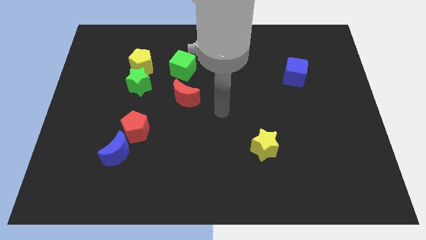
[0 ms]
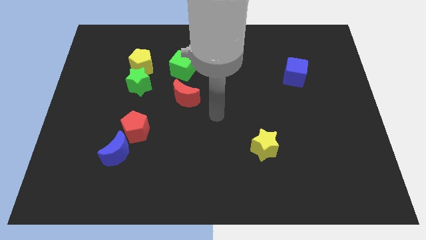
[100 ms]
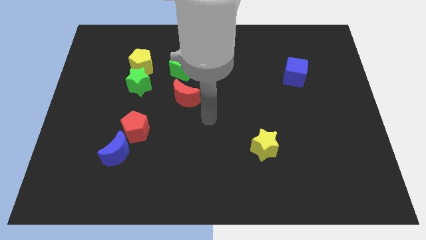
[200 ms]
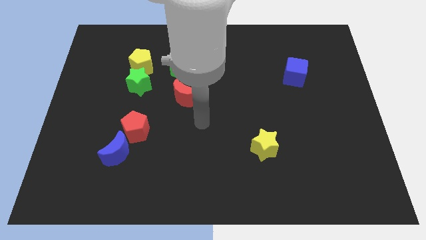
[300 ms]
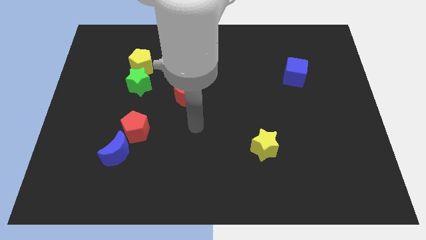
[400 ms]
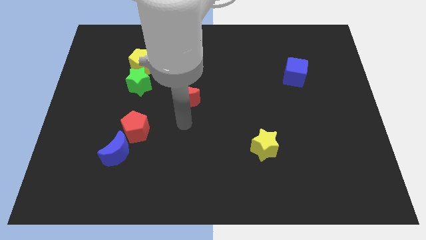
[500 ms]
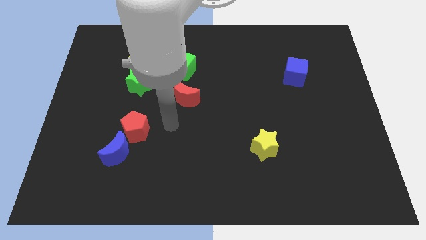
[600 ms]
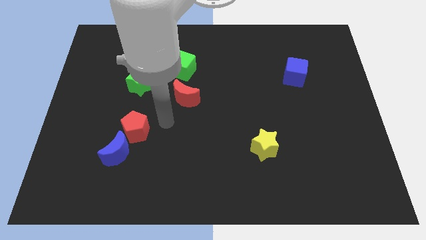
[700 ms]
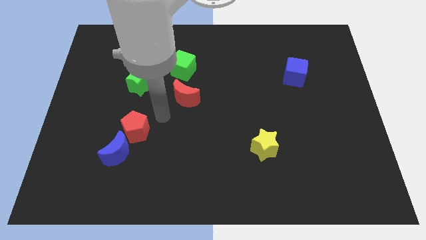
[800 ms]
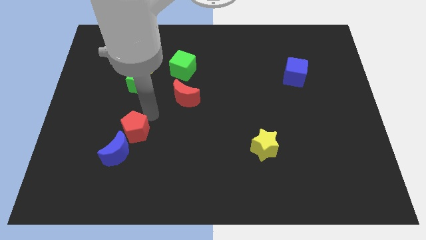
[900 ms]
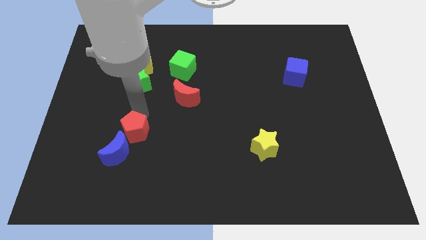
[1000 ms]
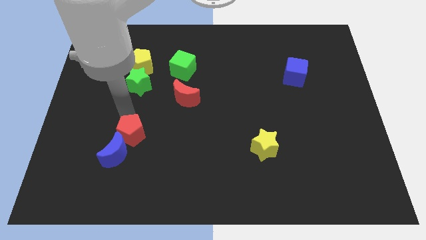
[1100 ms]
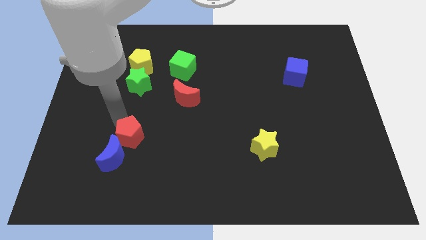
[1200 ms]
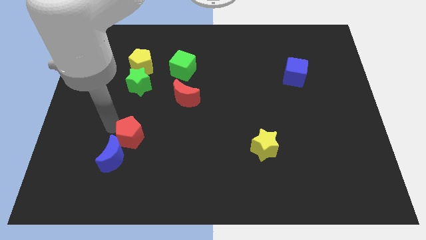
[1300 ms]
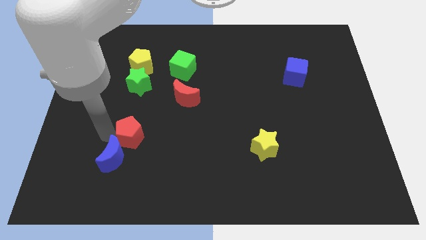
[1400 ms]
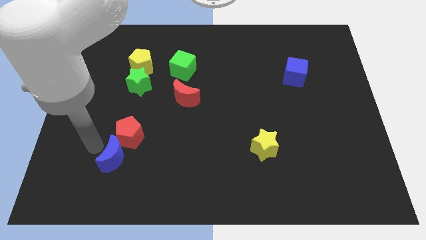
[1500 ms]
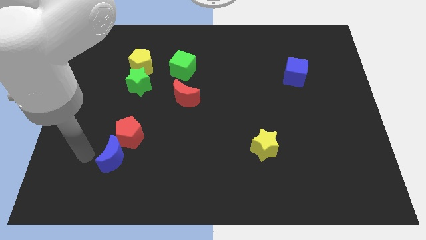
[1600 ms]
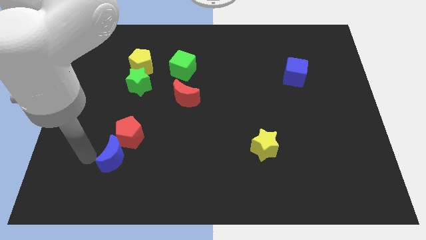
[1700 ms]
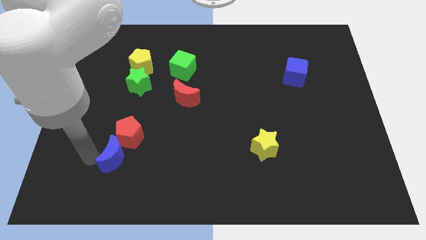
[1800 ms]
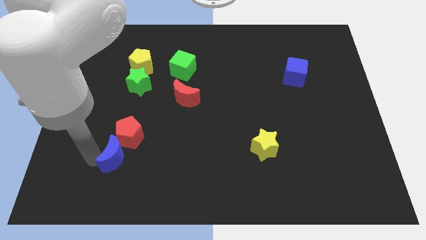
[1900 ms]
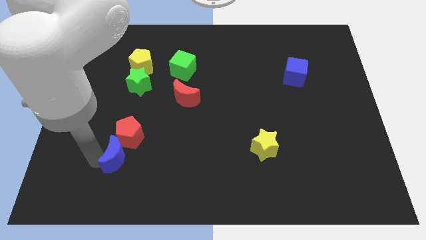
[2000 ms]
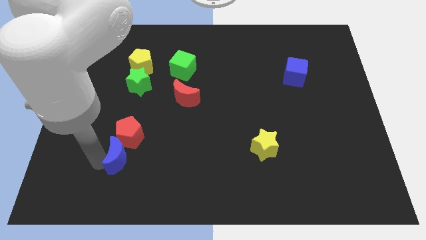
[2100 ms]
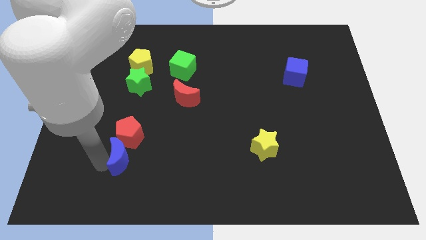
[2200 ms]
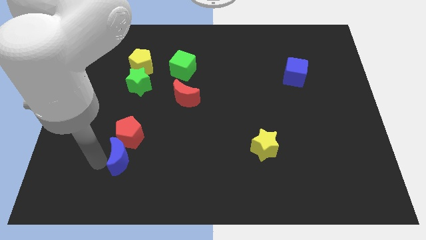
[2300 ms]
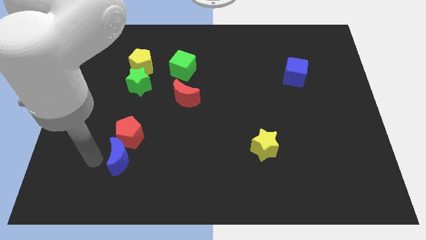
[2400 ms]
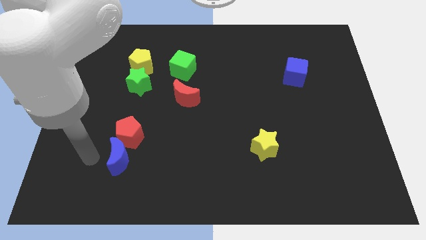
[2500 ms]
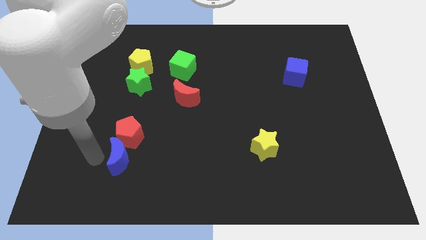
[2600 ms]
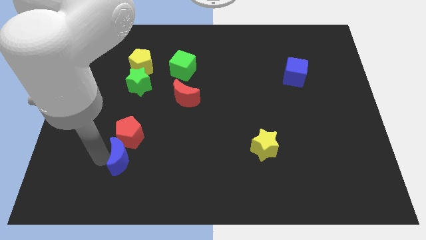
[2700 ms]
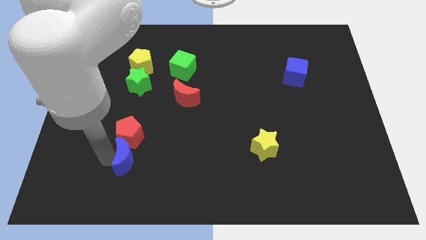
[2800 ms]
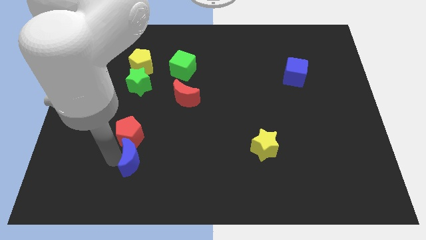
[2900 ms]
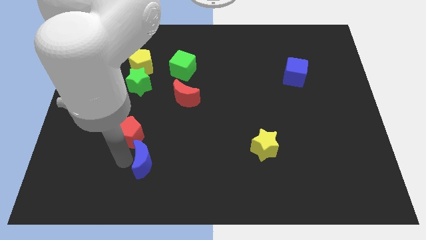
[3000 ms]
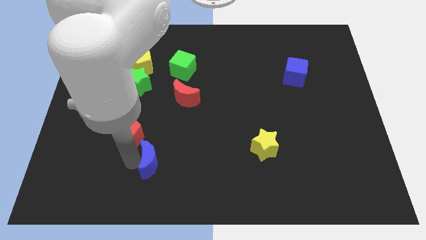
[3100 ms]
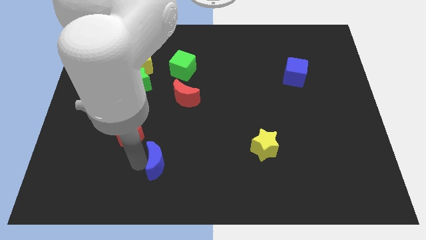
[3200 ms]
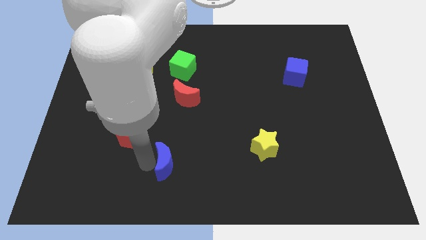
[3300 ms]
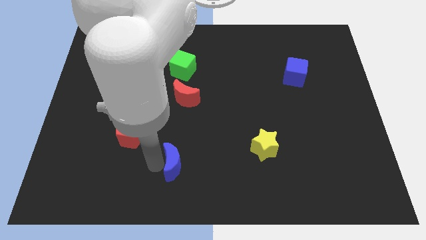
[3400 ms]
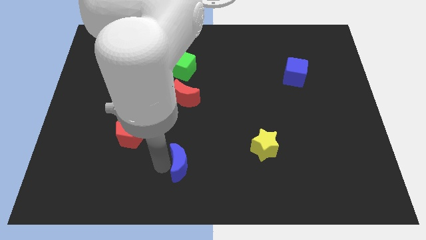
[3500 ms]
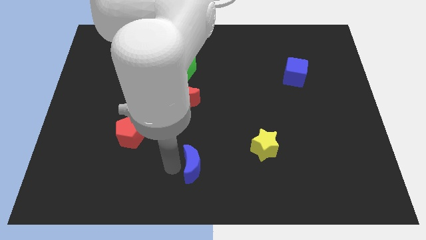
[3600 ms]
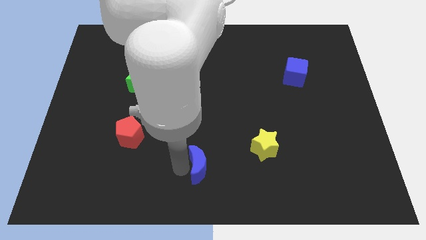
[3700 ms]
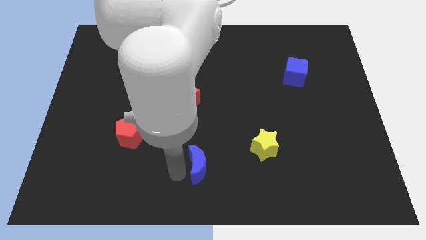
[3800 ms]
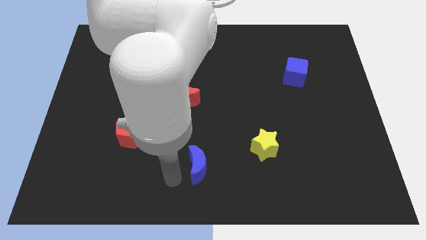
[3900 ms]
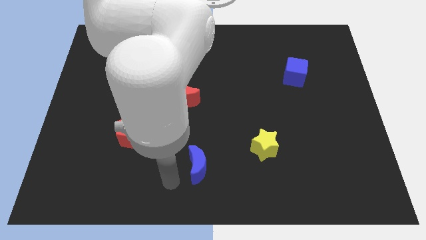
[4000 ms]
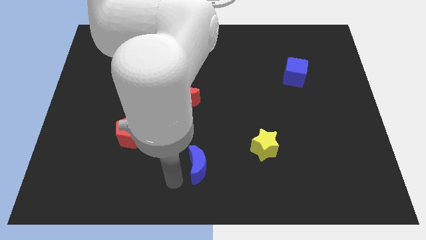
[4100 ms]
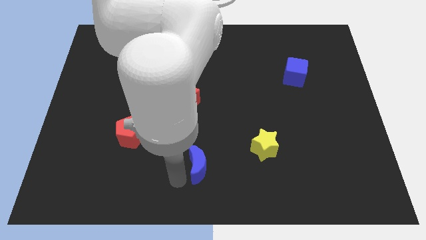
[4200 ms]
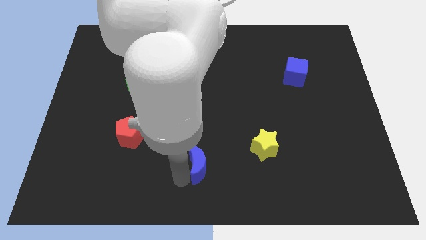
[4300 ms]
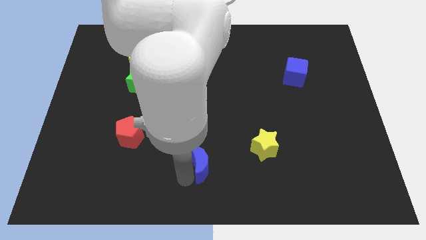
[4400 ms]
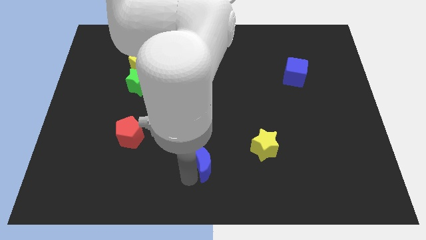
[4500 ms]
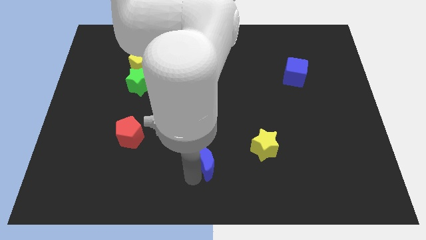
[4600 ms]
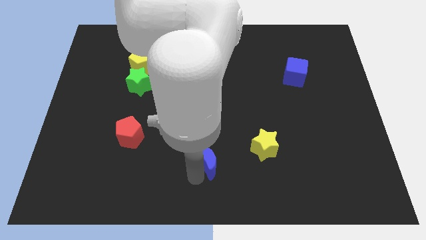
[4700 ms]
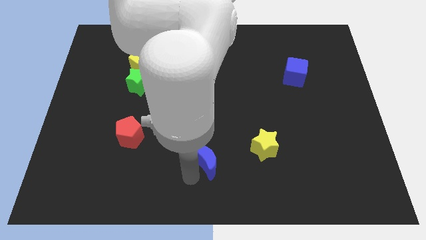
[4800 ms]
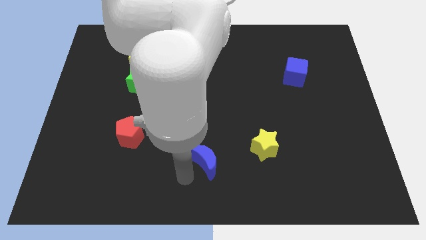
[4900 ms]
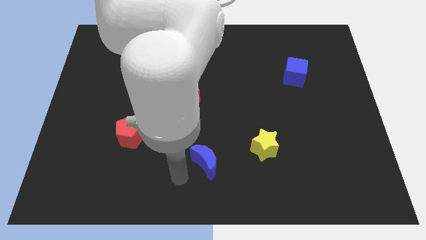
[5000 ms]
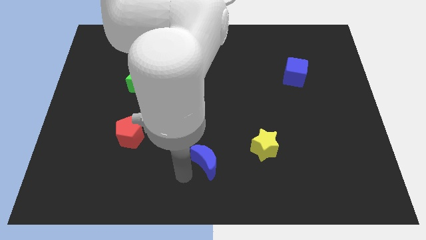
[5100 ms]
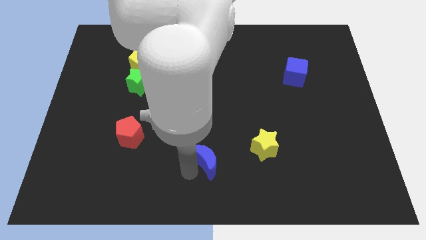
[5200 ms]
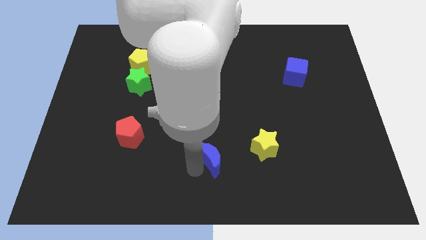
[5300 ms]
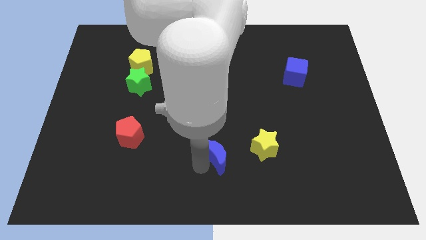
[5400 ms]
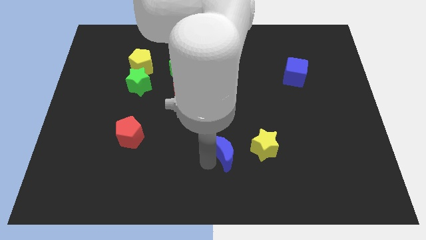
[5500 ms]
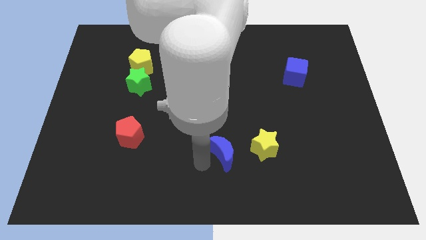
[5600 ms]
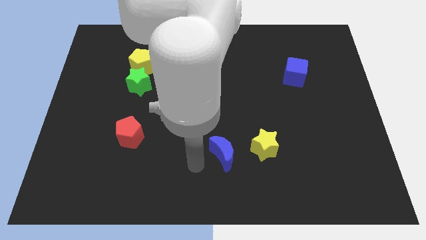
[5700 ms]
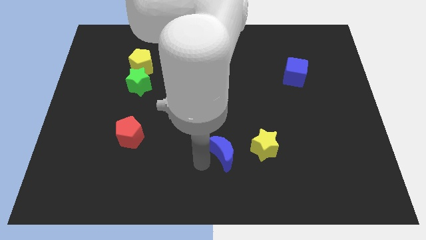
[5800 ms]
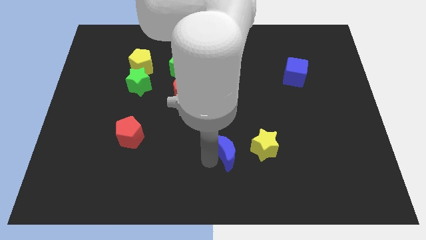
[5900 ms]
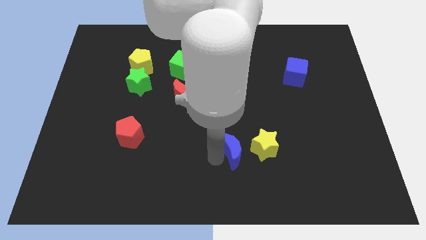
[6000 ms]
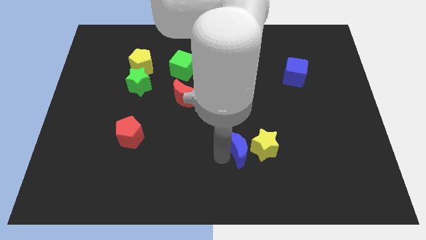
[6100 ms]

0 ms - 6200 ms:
put the blue moon towards the yellow star

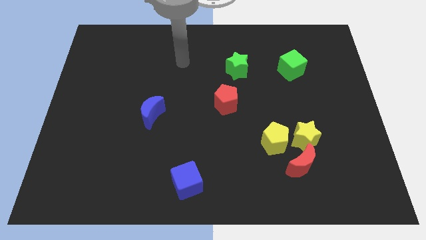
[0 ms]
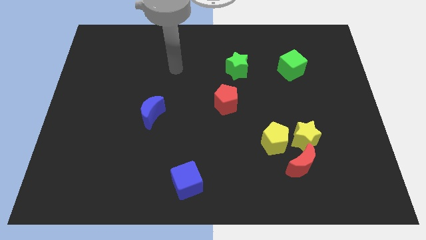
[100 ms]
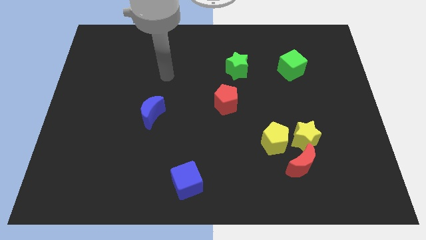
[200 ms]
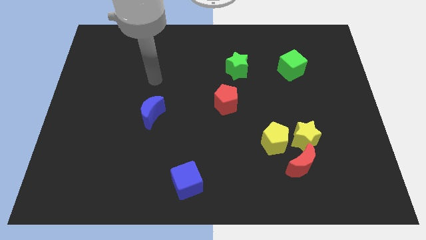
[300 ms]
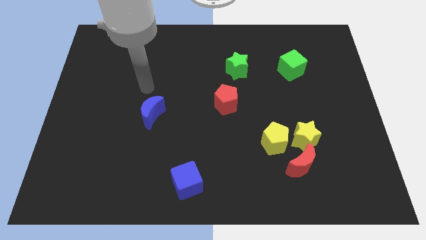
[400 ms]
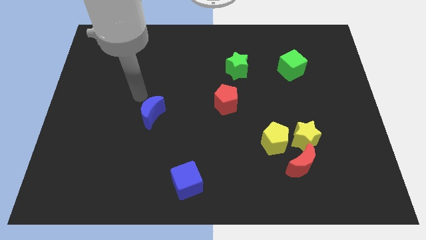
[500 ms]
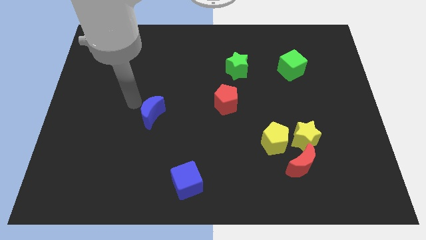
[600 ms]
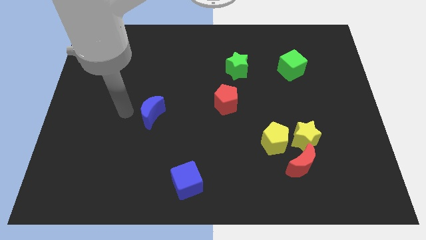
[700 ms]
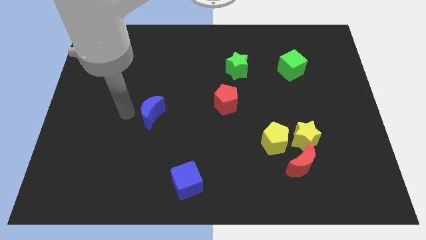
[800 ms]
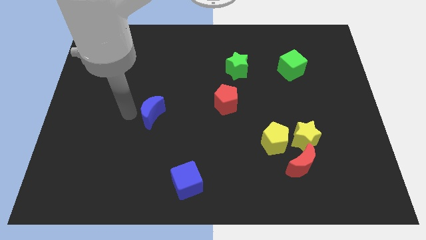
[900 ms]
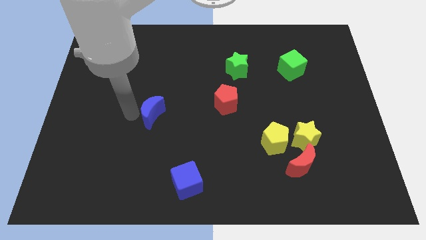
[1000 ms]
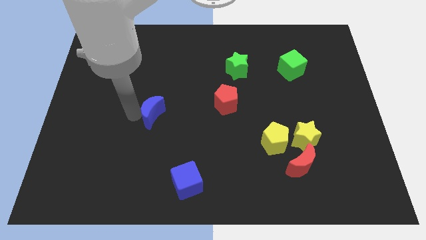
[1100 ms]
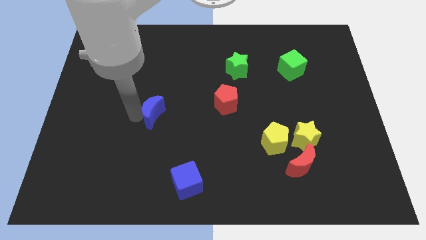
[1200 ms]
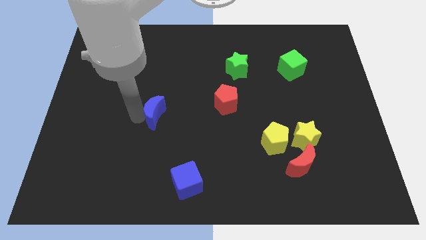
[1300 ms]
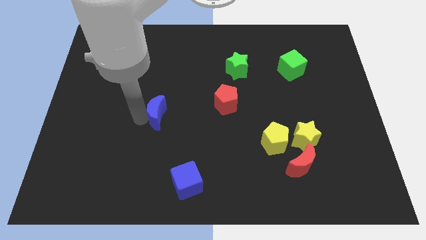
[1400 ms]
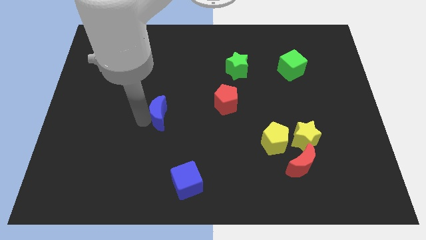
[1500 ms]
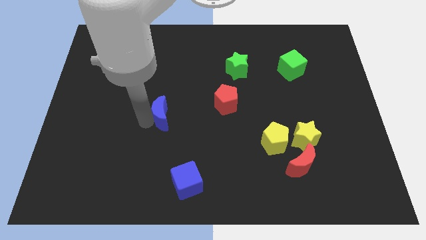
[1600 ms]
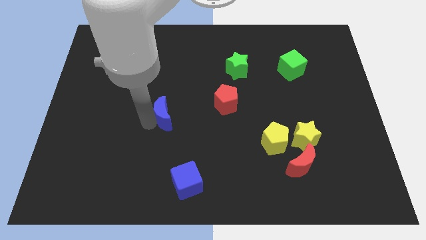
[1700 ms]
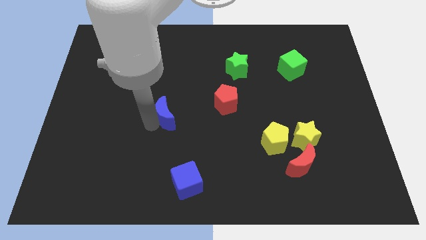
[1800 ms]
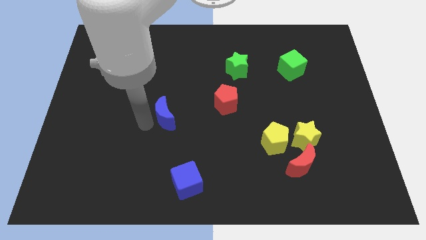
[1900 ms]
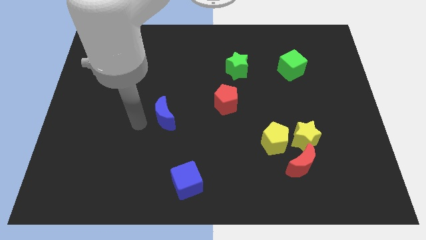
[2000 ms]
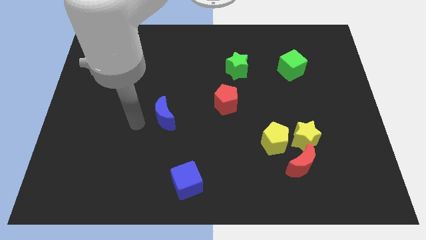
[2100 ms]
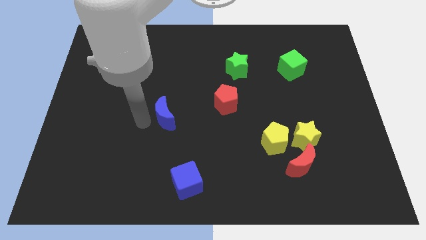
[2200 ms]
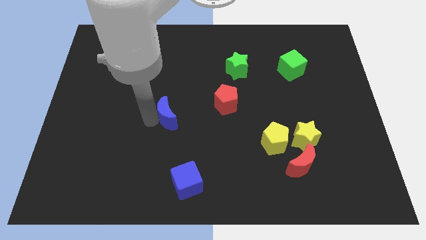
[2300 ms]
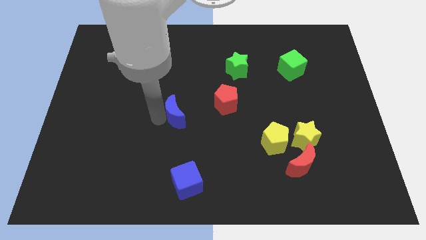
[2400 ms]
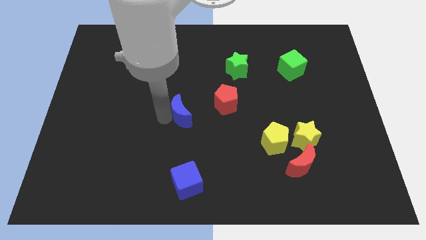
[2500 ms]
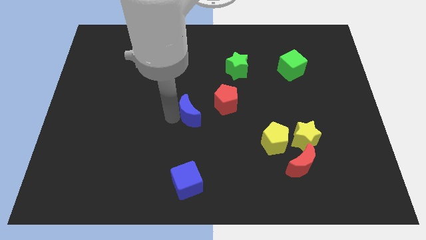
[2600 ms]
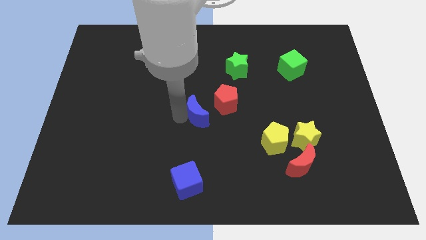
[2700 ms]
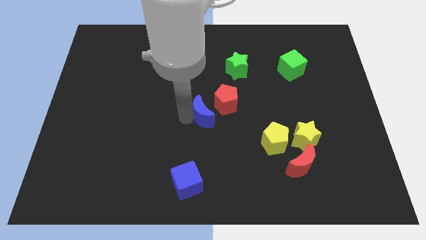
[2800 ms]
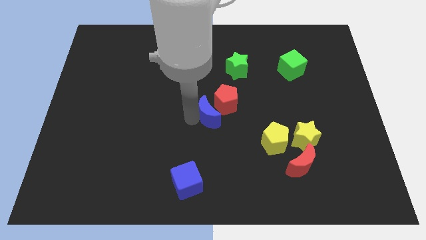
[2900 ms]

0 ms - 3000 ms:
move the blue moon towards the red pentagon
